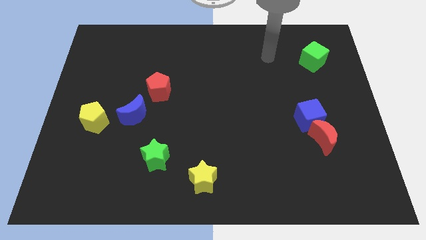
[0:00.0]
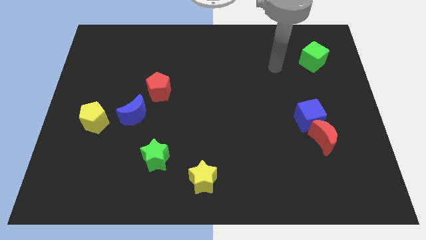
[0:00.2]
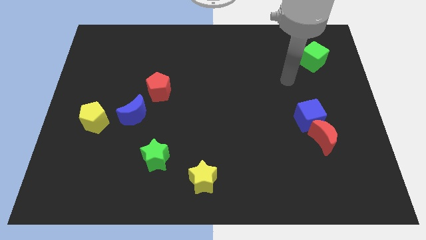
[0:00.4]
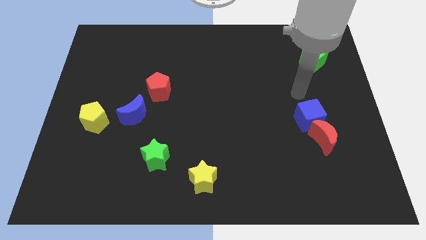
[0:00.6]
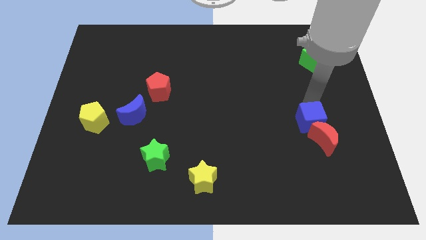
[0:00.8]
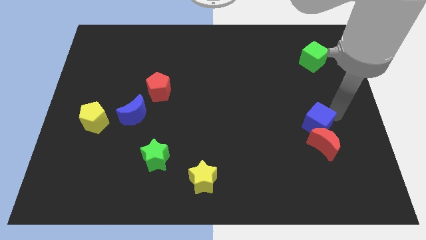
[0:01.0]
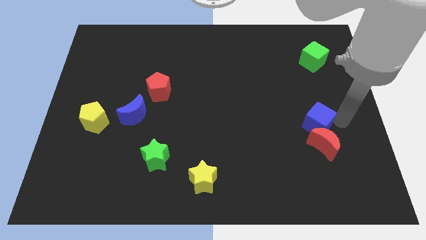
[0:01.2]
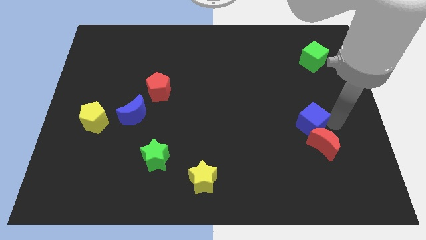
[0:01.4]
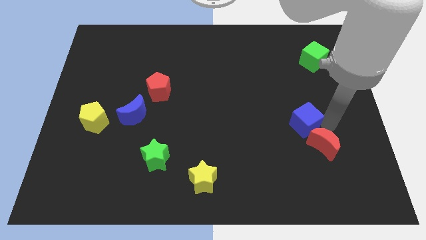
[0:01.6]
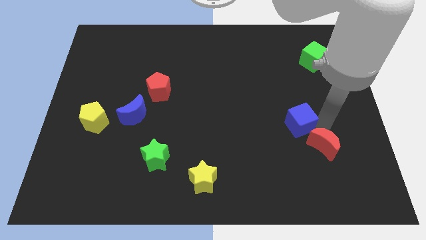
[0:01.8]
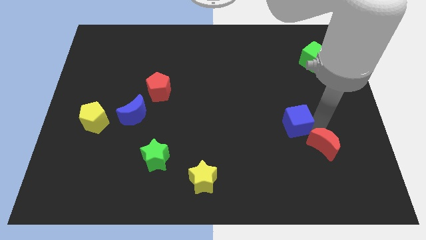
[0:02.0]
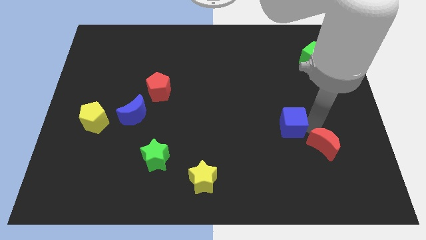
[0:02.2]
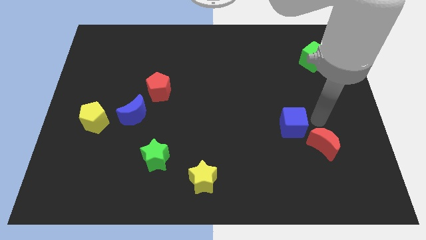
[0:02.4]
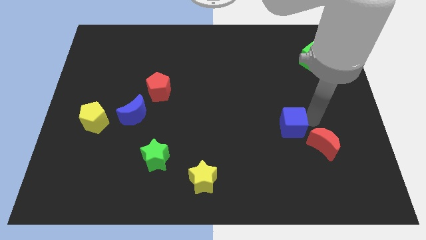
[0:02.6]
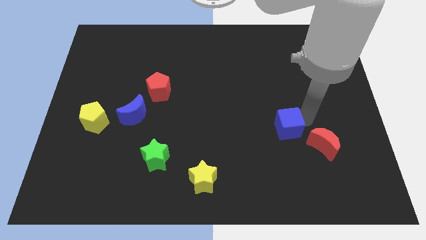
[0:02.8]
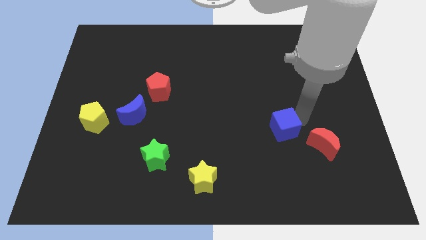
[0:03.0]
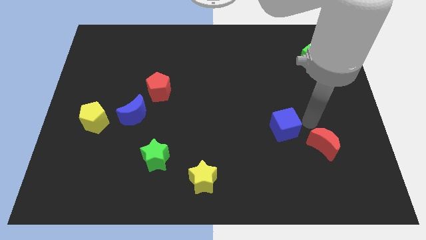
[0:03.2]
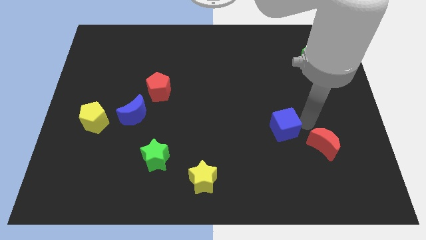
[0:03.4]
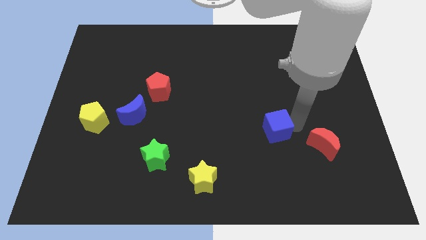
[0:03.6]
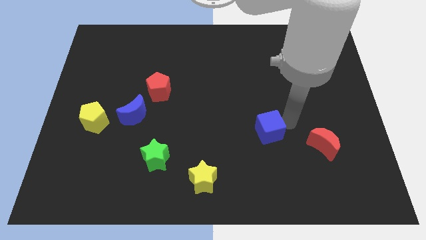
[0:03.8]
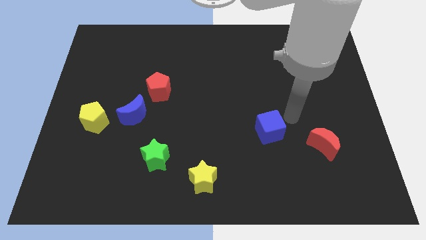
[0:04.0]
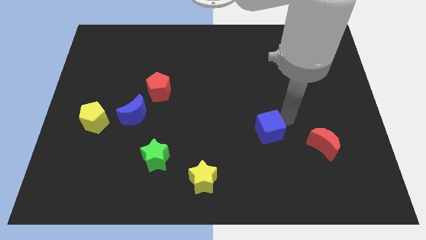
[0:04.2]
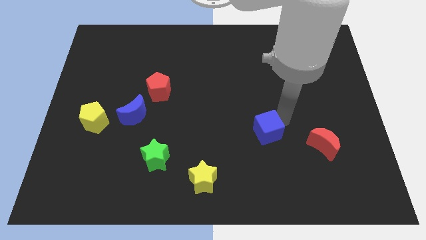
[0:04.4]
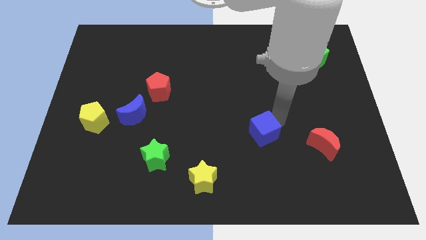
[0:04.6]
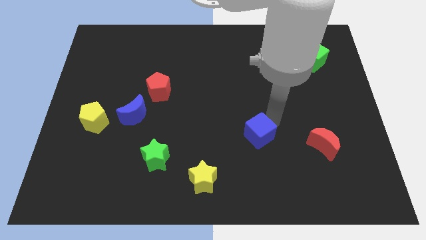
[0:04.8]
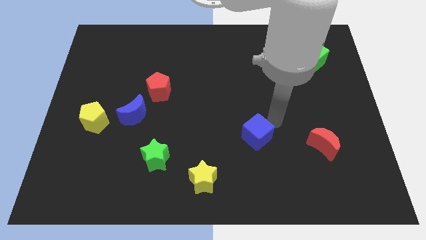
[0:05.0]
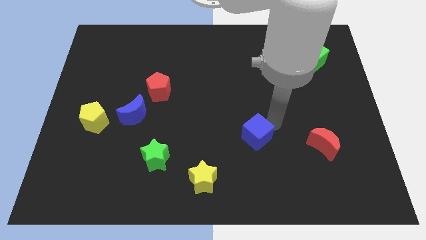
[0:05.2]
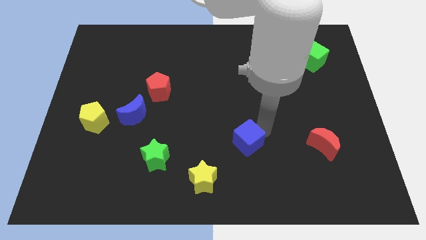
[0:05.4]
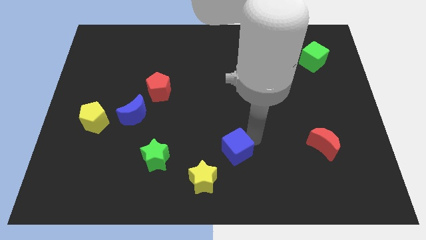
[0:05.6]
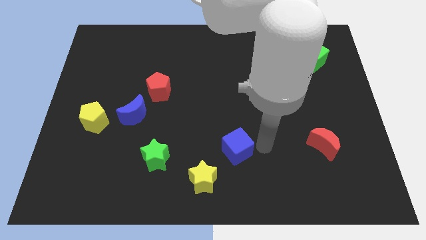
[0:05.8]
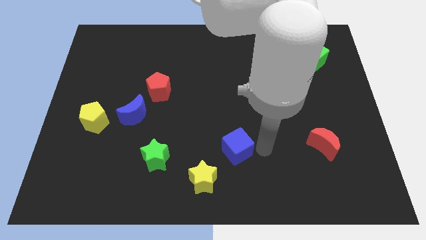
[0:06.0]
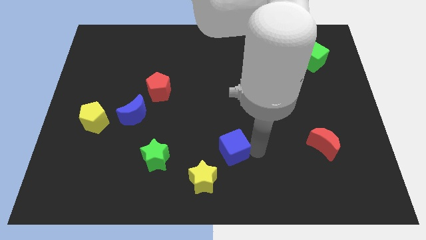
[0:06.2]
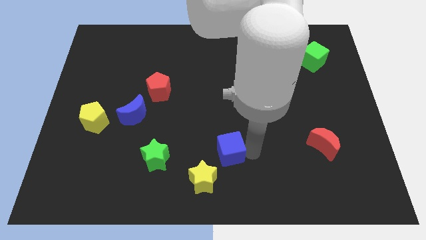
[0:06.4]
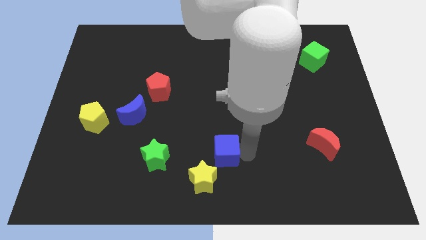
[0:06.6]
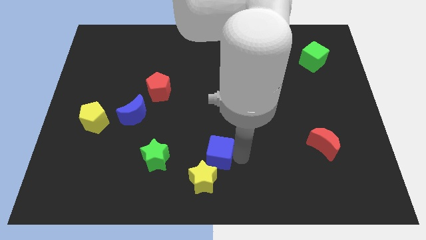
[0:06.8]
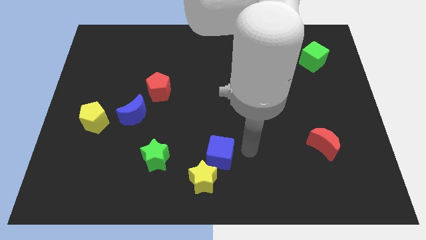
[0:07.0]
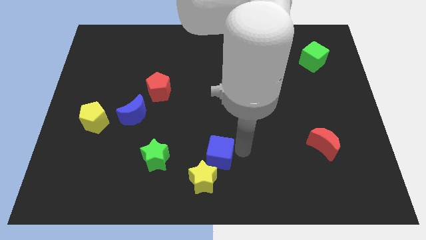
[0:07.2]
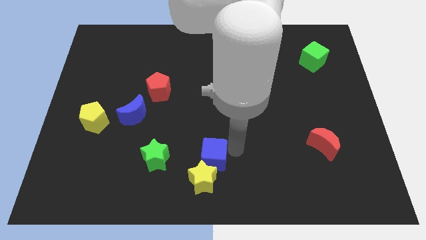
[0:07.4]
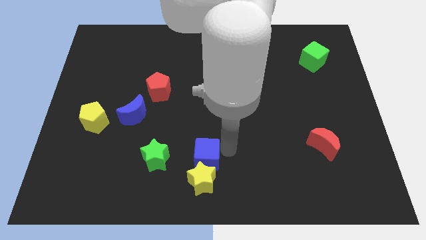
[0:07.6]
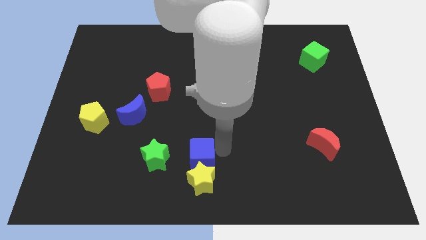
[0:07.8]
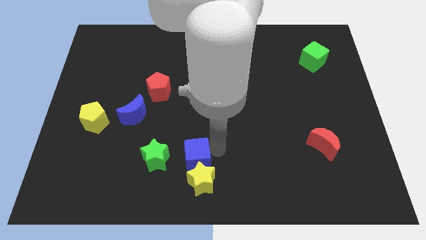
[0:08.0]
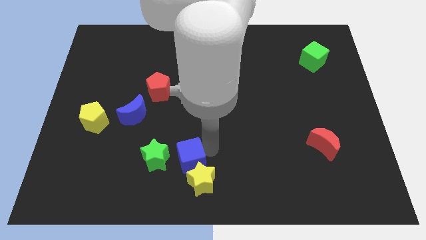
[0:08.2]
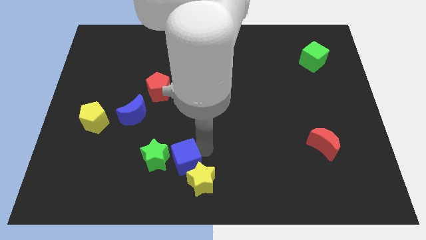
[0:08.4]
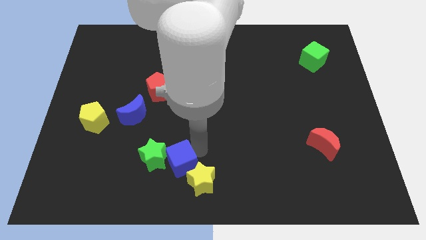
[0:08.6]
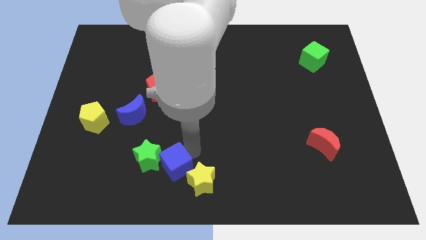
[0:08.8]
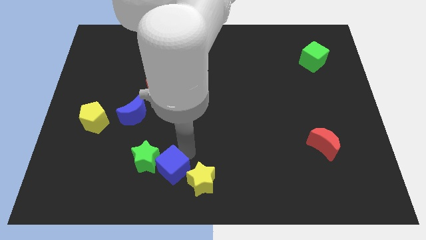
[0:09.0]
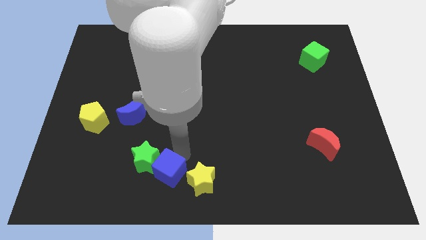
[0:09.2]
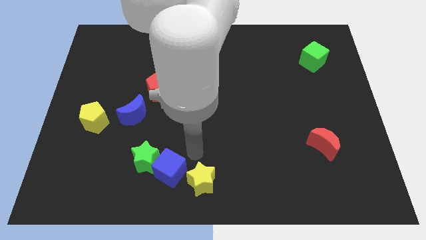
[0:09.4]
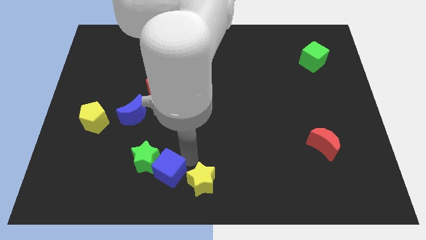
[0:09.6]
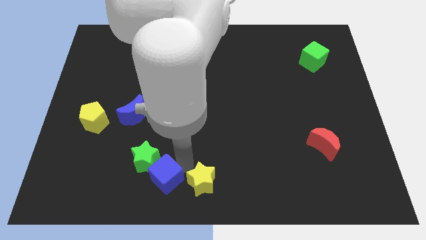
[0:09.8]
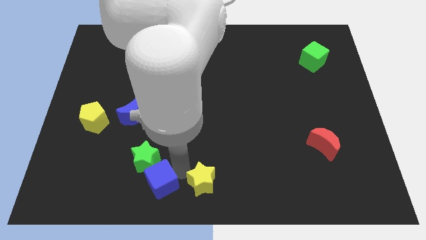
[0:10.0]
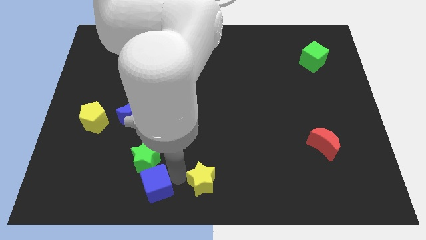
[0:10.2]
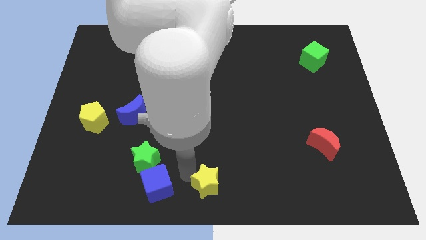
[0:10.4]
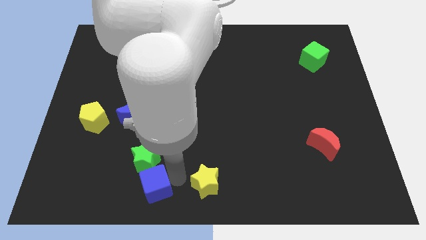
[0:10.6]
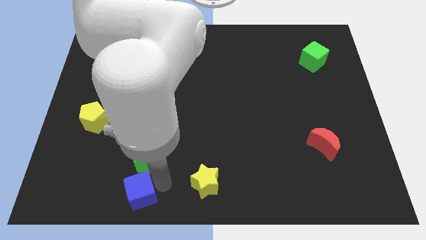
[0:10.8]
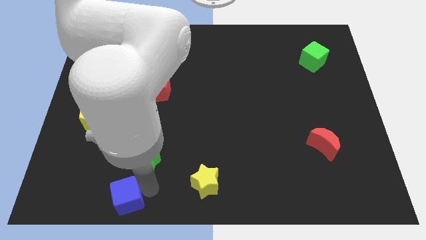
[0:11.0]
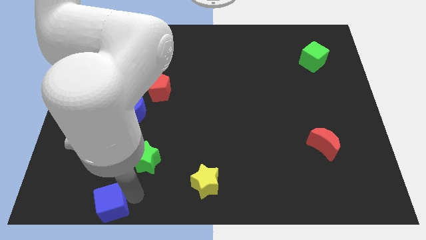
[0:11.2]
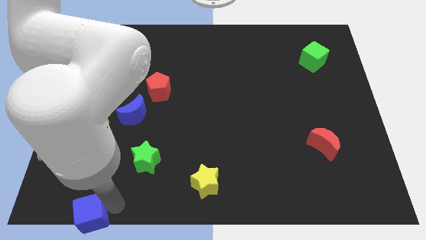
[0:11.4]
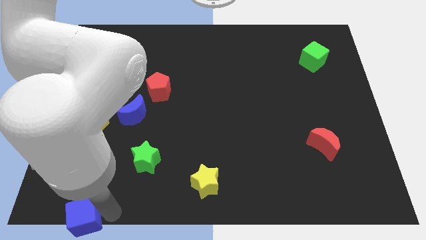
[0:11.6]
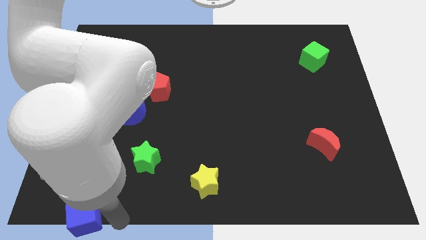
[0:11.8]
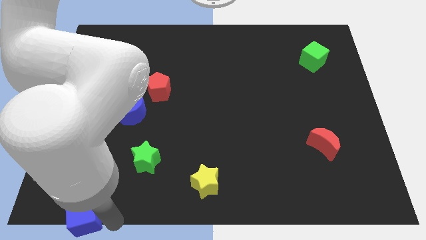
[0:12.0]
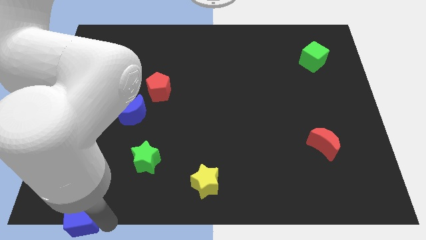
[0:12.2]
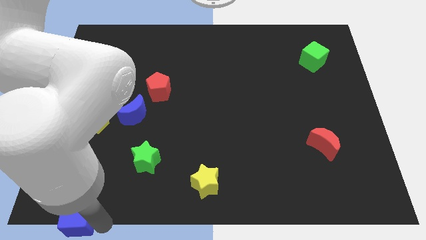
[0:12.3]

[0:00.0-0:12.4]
slide the blue cube to the bottom left of the board
